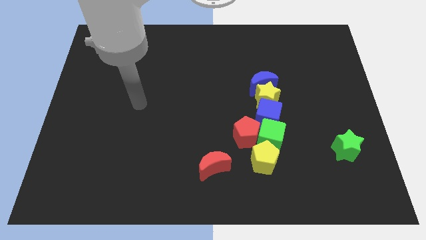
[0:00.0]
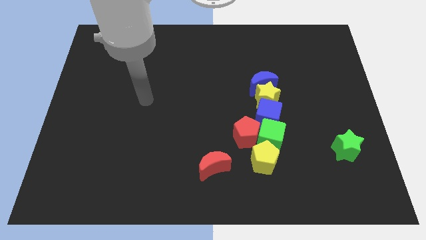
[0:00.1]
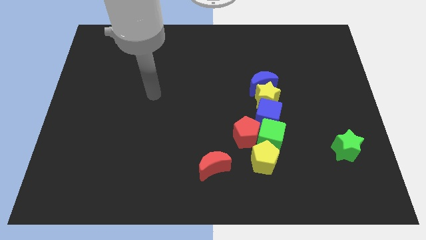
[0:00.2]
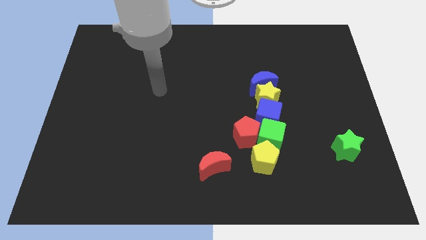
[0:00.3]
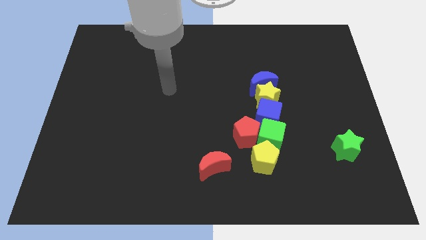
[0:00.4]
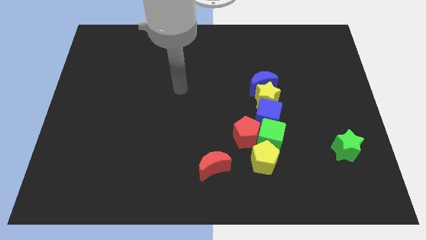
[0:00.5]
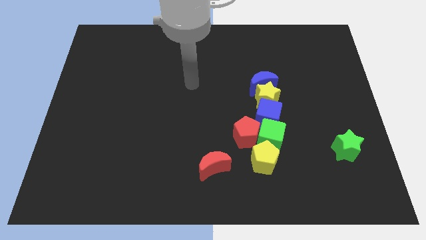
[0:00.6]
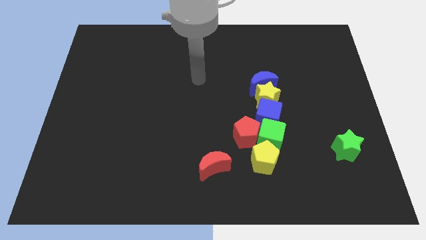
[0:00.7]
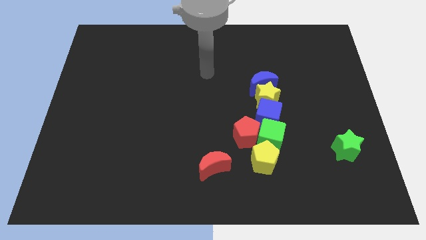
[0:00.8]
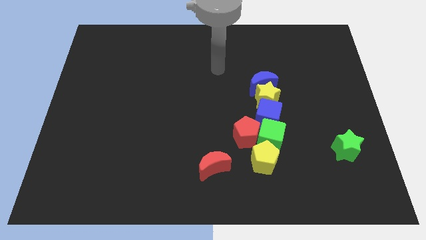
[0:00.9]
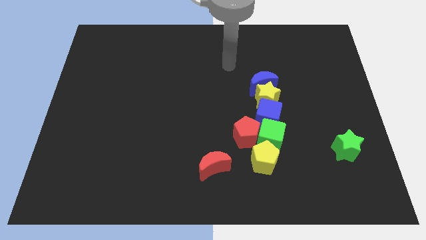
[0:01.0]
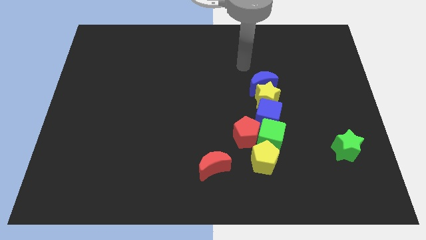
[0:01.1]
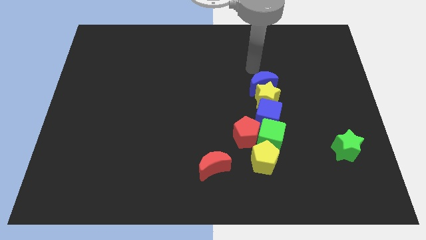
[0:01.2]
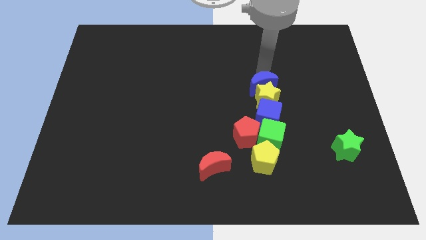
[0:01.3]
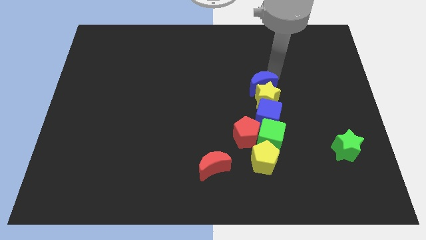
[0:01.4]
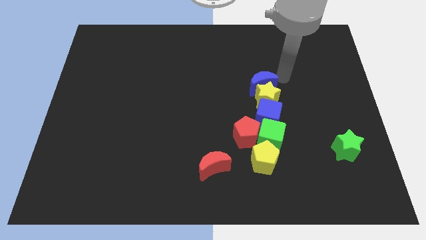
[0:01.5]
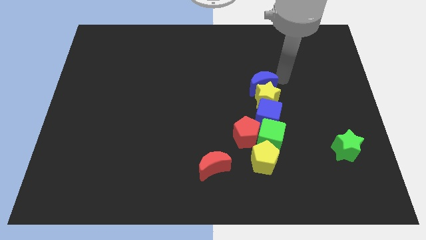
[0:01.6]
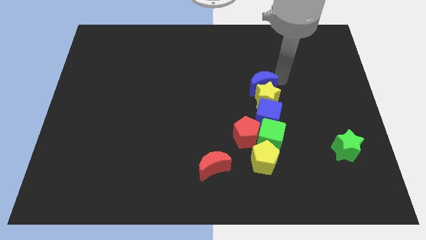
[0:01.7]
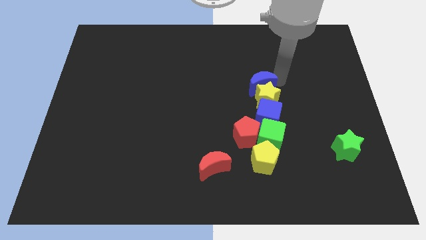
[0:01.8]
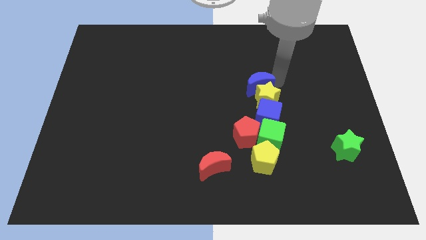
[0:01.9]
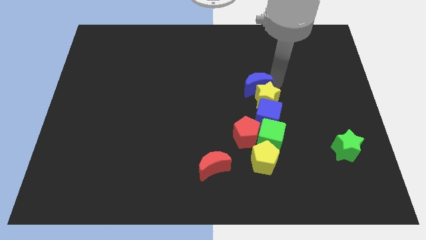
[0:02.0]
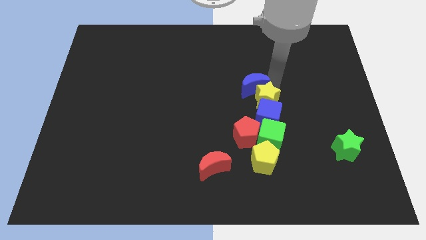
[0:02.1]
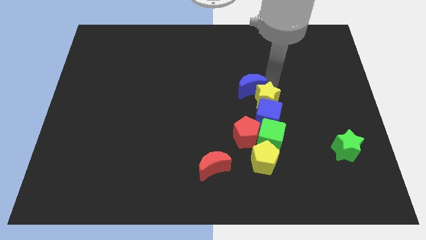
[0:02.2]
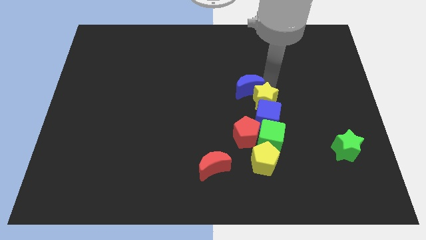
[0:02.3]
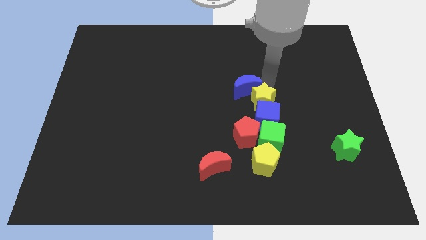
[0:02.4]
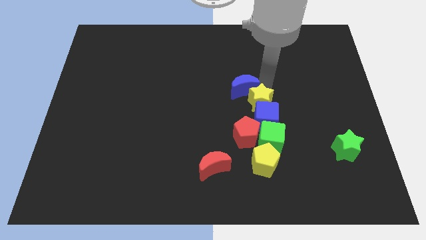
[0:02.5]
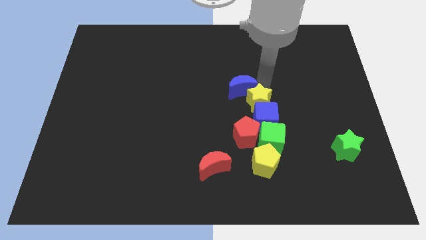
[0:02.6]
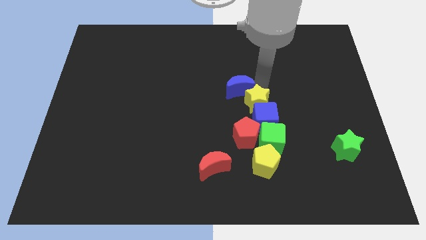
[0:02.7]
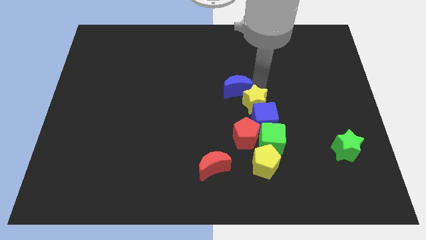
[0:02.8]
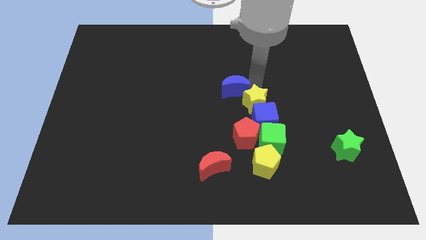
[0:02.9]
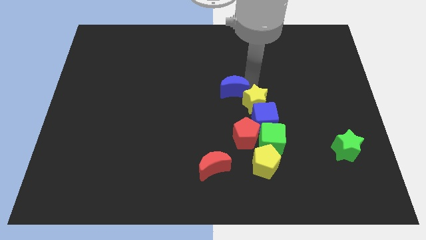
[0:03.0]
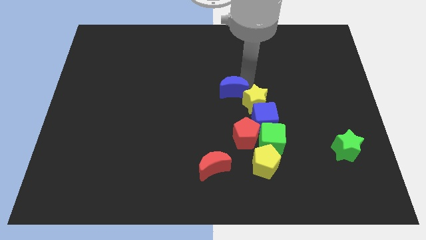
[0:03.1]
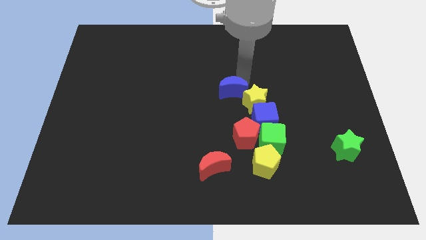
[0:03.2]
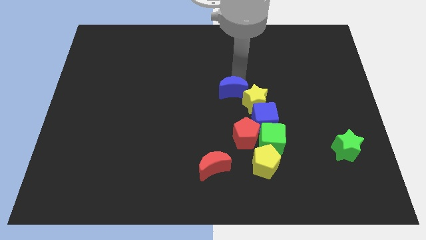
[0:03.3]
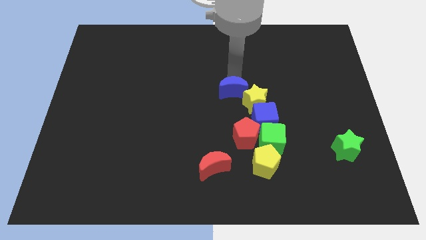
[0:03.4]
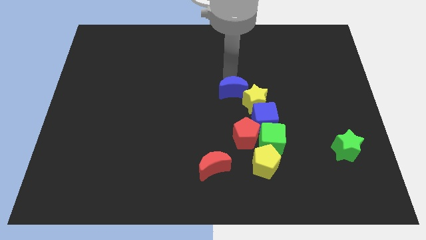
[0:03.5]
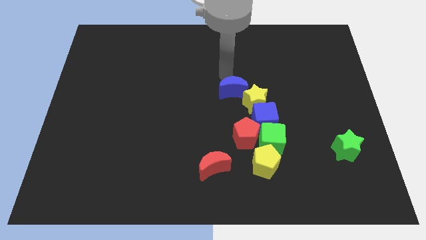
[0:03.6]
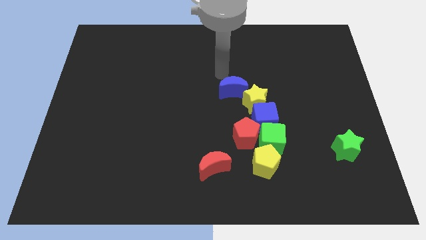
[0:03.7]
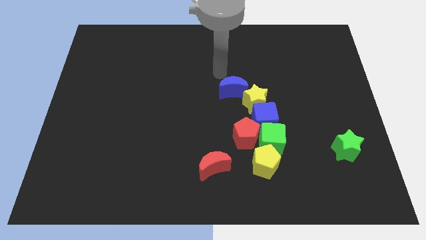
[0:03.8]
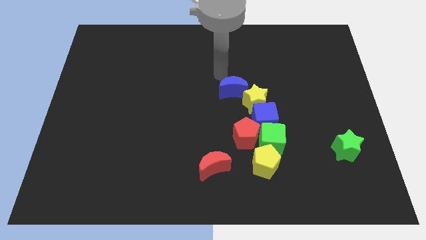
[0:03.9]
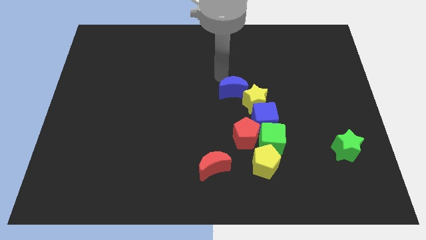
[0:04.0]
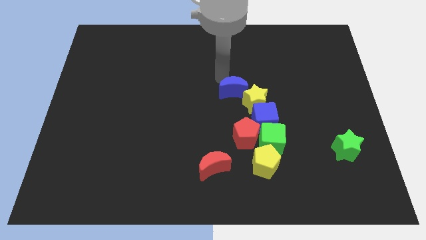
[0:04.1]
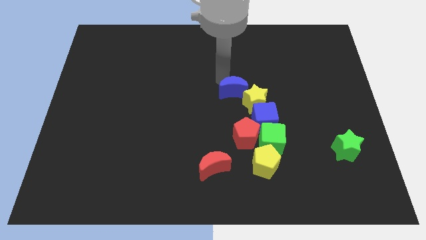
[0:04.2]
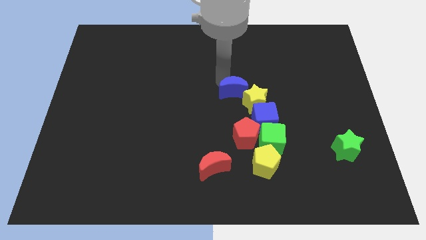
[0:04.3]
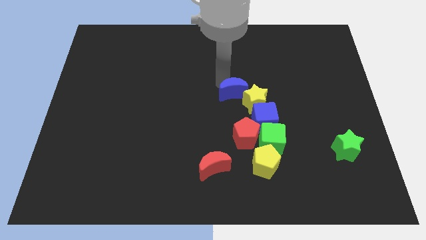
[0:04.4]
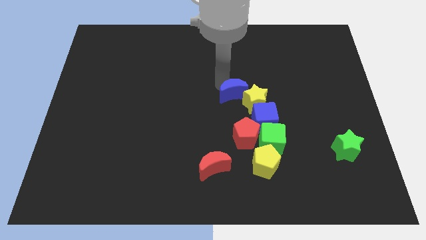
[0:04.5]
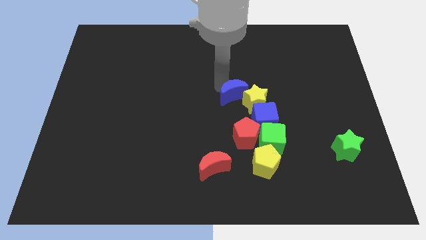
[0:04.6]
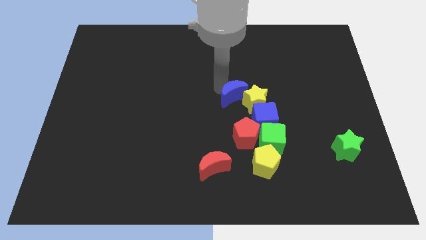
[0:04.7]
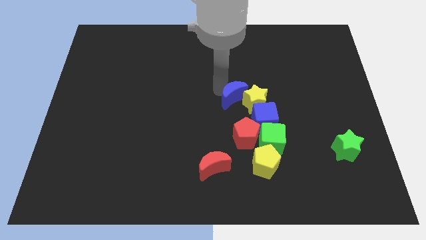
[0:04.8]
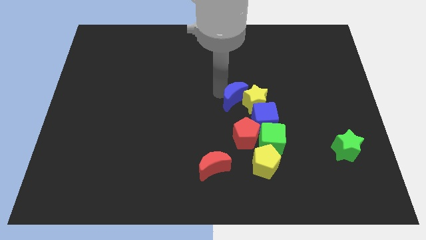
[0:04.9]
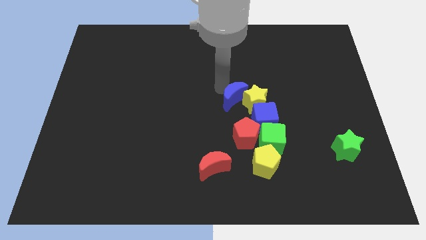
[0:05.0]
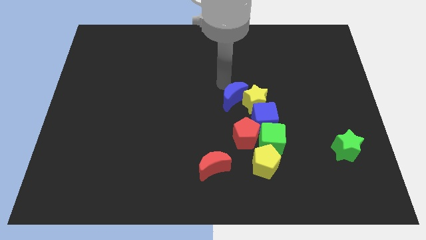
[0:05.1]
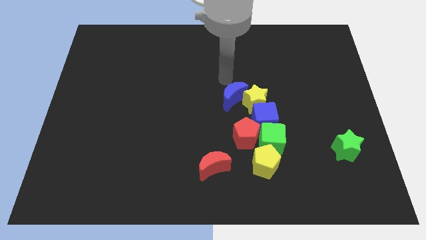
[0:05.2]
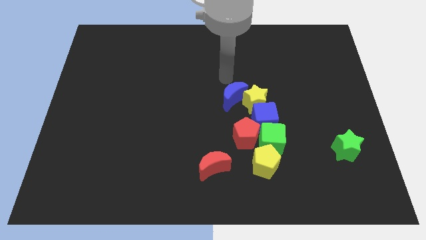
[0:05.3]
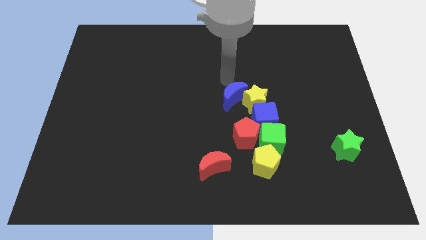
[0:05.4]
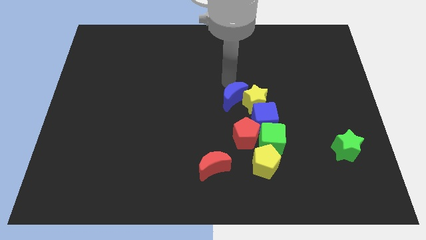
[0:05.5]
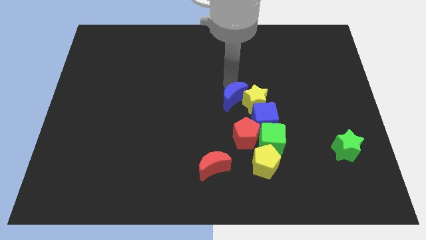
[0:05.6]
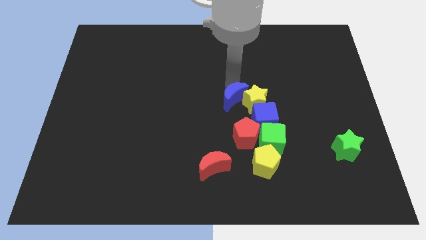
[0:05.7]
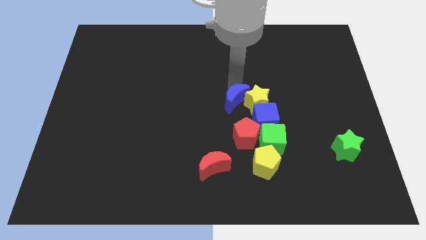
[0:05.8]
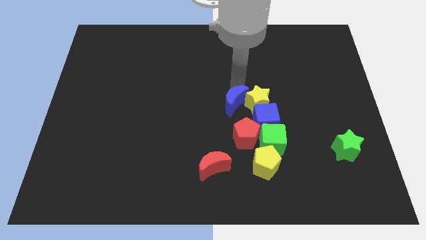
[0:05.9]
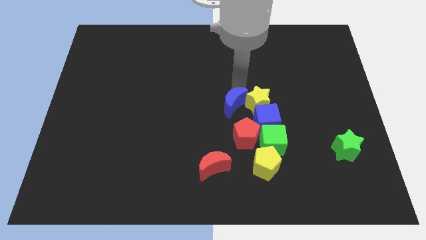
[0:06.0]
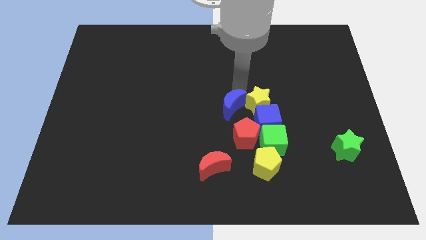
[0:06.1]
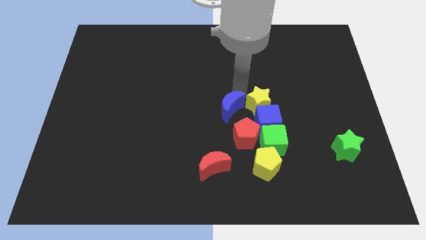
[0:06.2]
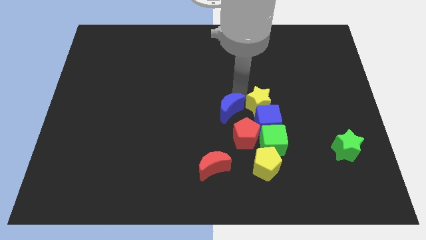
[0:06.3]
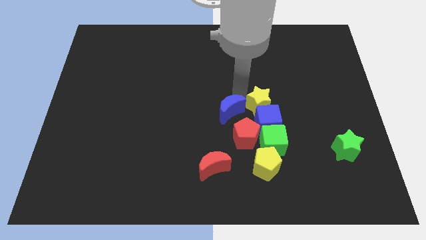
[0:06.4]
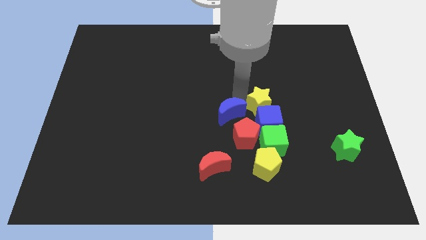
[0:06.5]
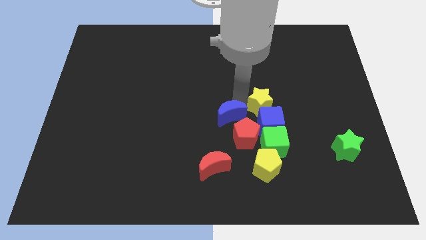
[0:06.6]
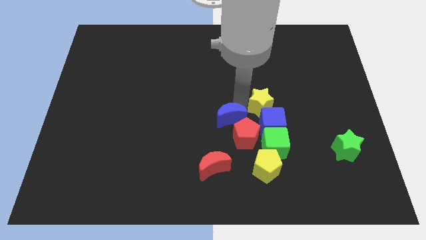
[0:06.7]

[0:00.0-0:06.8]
push the blue moon to the red pentagon
